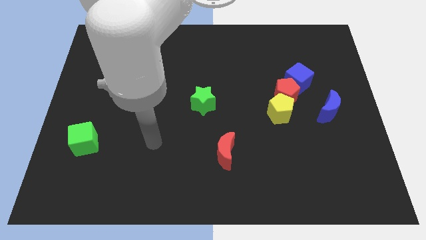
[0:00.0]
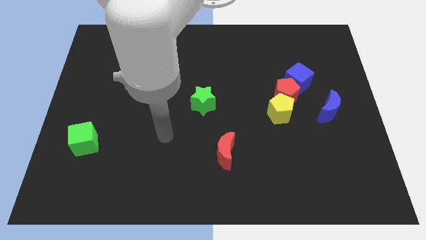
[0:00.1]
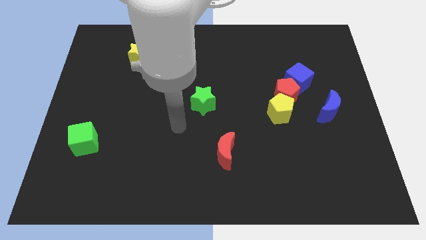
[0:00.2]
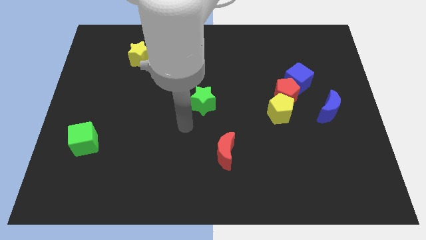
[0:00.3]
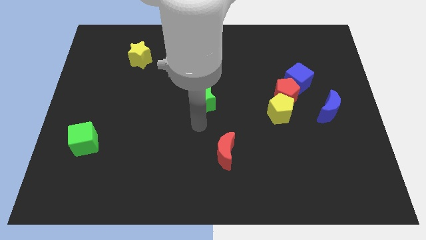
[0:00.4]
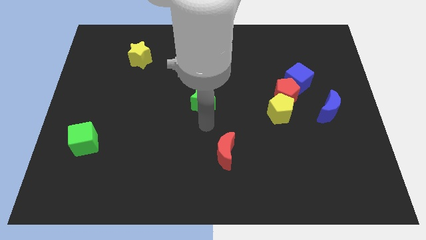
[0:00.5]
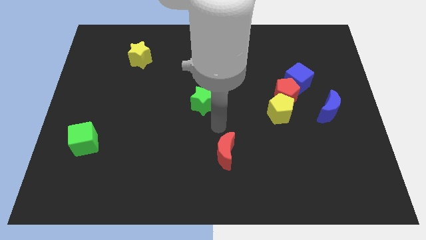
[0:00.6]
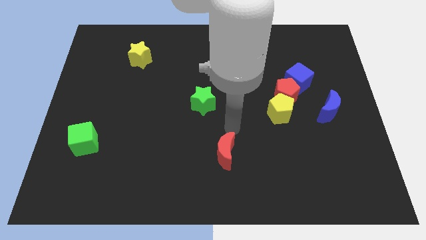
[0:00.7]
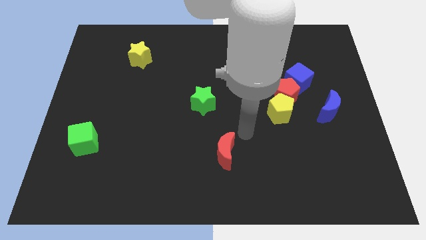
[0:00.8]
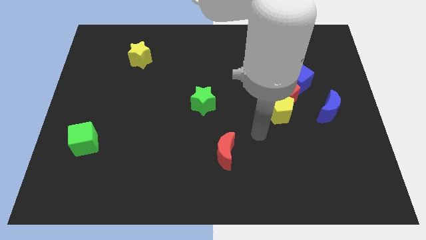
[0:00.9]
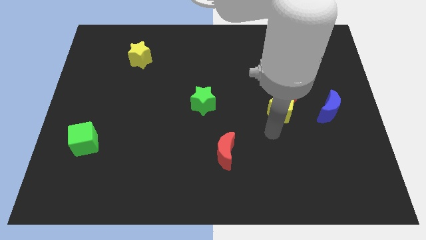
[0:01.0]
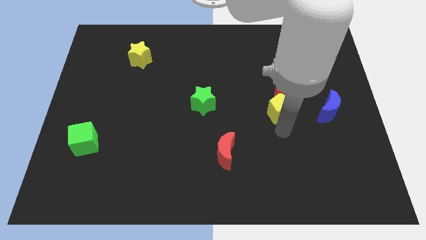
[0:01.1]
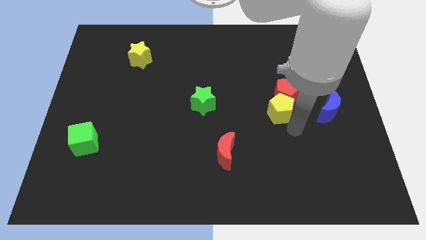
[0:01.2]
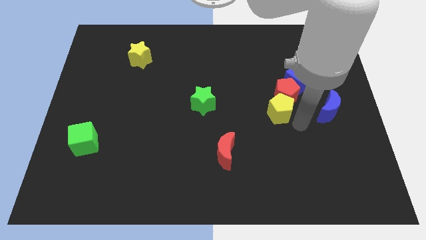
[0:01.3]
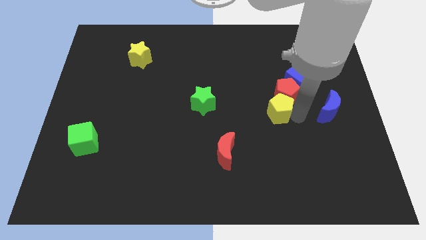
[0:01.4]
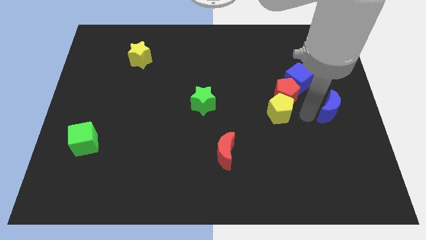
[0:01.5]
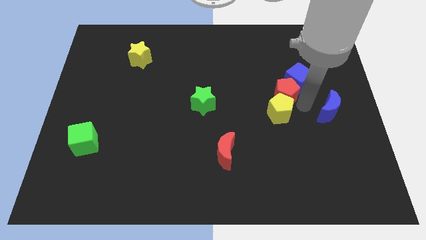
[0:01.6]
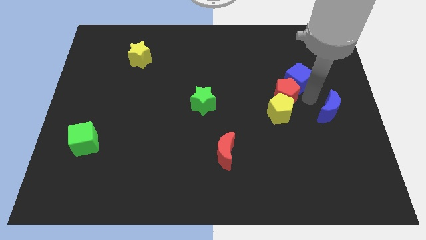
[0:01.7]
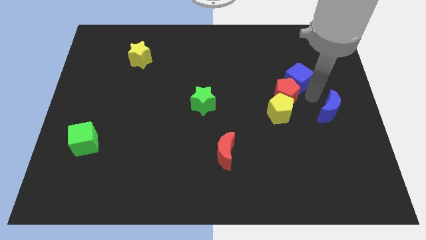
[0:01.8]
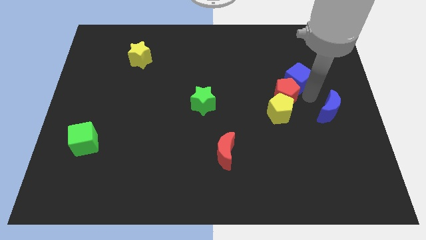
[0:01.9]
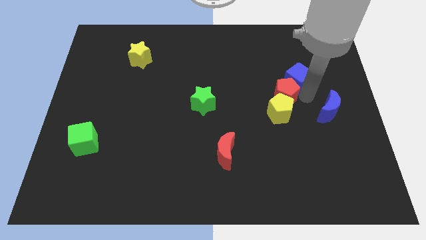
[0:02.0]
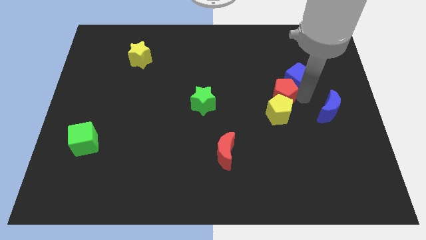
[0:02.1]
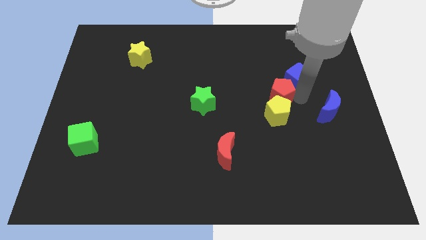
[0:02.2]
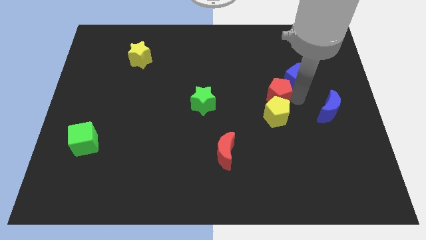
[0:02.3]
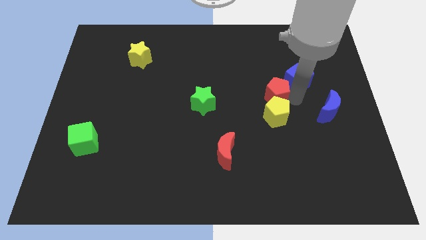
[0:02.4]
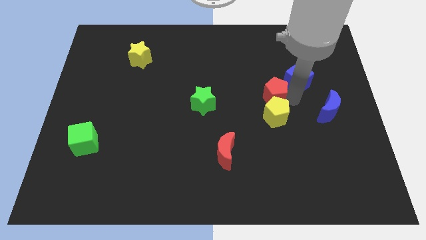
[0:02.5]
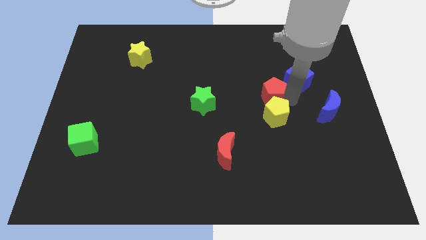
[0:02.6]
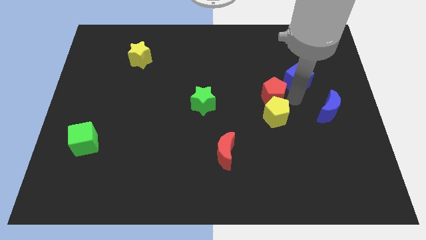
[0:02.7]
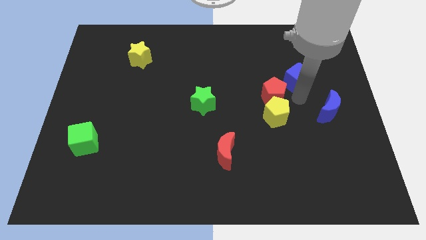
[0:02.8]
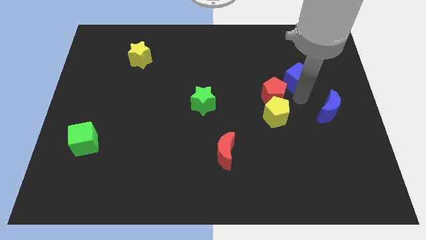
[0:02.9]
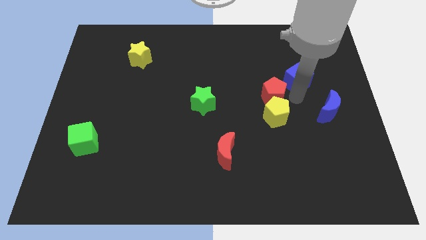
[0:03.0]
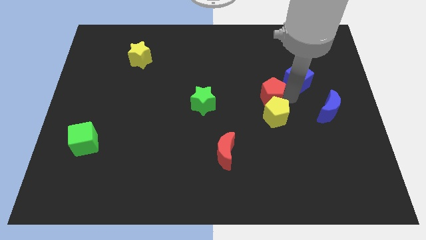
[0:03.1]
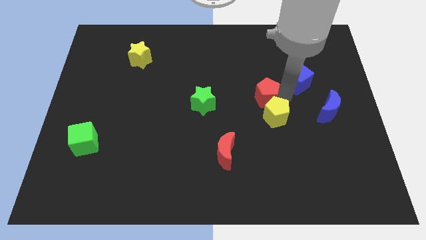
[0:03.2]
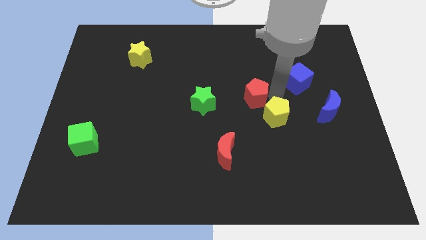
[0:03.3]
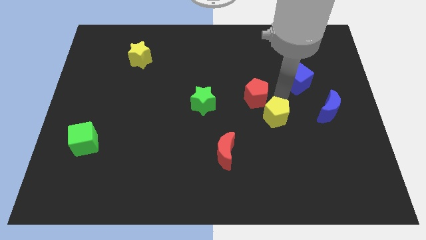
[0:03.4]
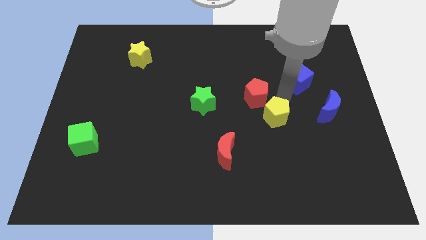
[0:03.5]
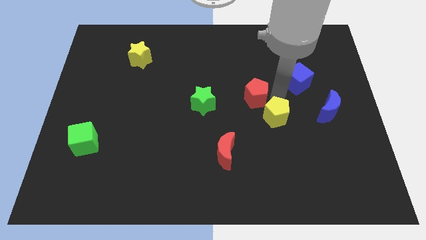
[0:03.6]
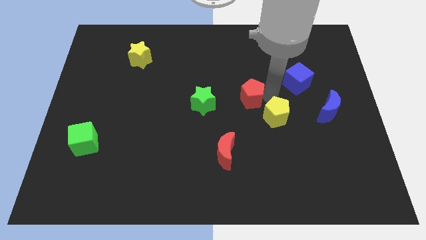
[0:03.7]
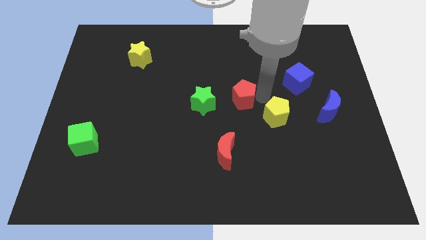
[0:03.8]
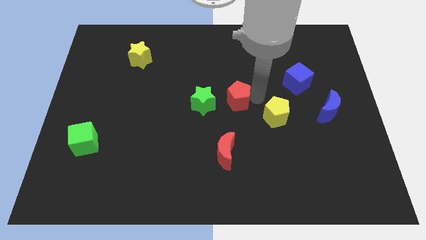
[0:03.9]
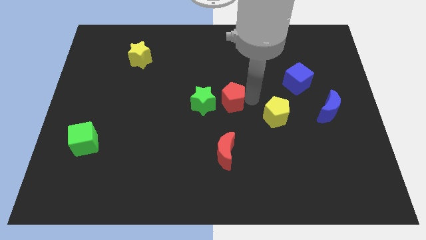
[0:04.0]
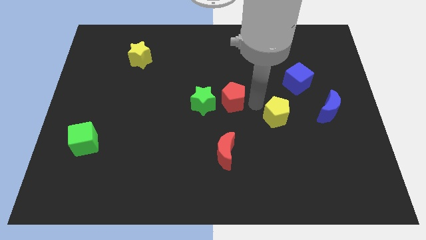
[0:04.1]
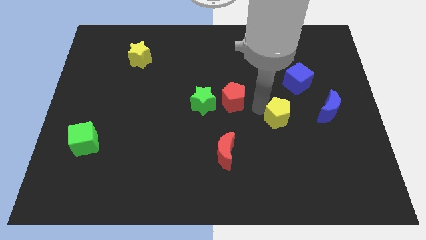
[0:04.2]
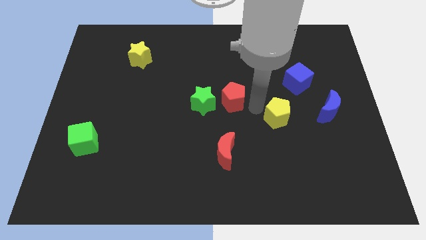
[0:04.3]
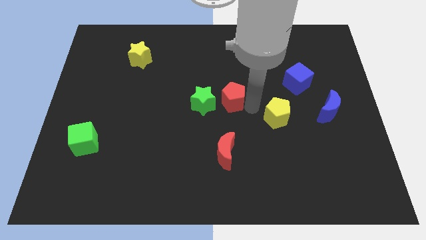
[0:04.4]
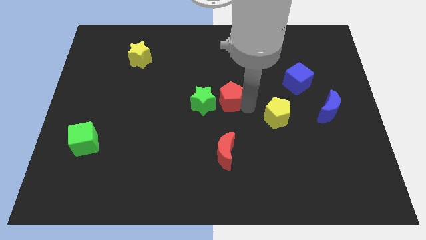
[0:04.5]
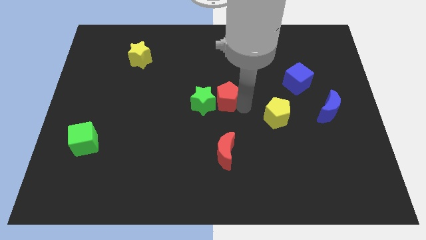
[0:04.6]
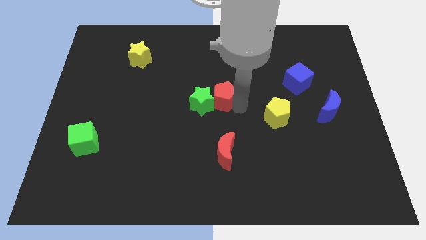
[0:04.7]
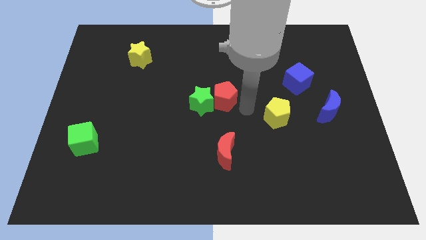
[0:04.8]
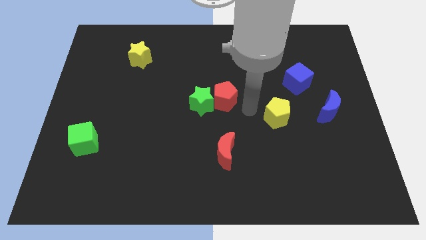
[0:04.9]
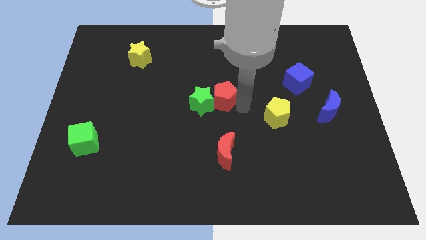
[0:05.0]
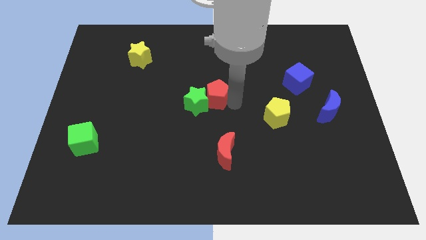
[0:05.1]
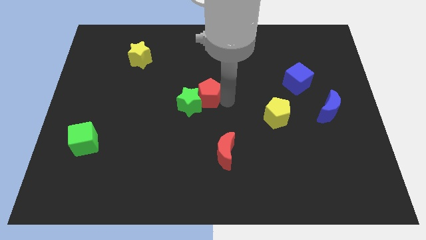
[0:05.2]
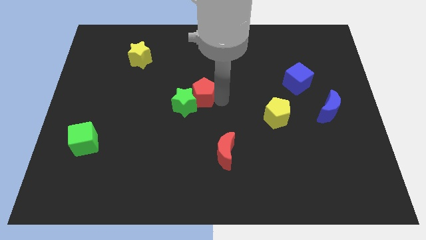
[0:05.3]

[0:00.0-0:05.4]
slide the red pentagon left

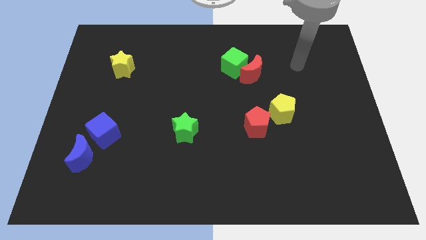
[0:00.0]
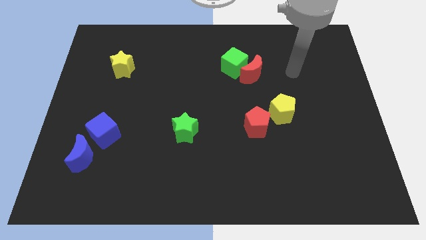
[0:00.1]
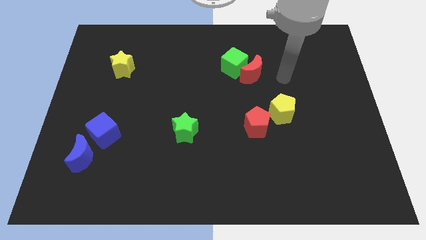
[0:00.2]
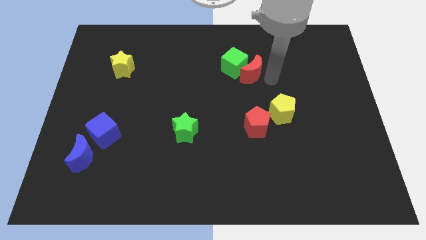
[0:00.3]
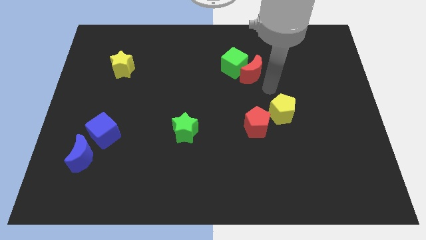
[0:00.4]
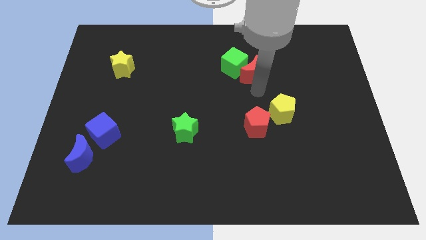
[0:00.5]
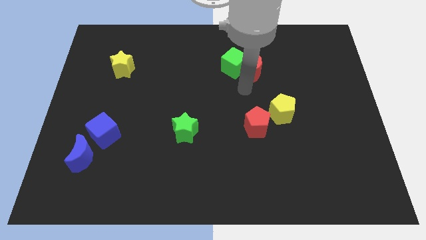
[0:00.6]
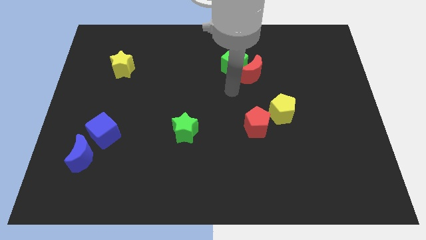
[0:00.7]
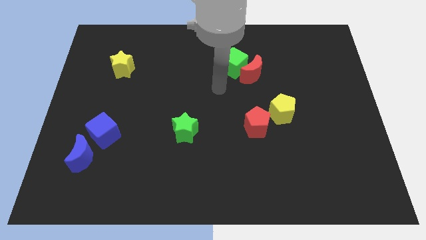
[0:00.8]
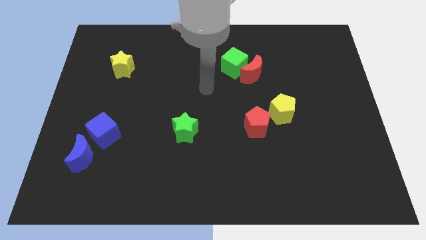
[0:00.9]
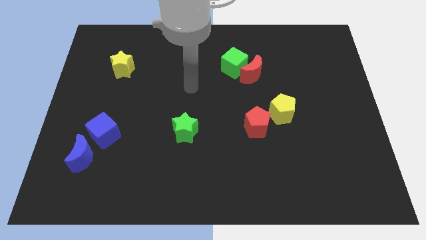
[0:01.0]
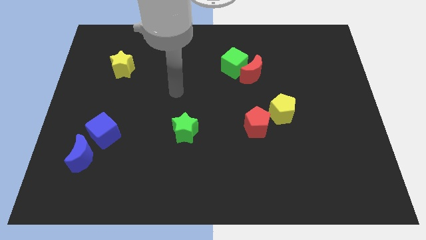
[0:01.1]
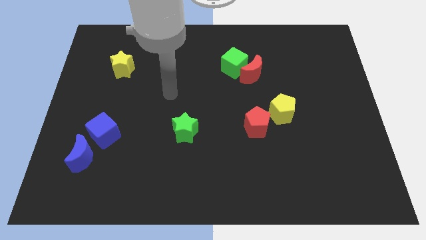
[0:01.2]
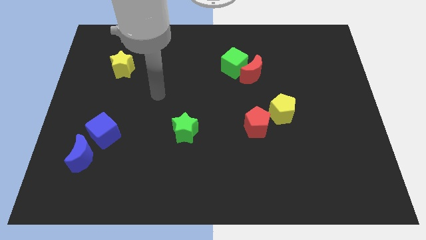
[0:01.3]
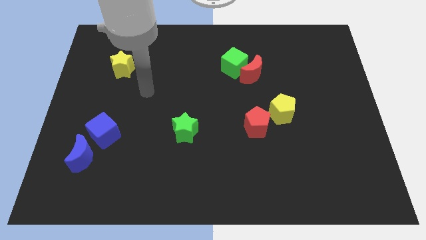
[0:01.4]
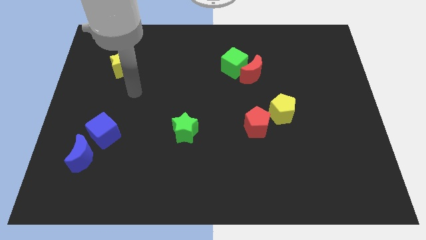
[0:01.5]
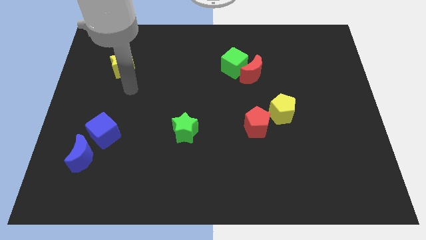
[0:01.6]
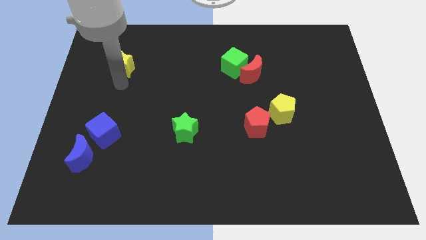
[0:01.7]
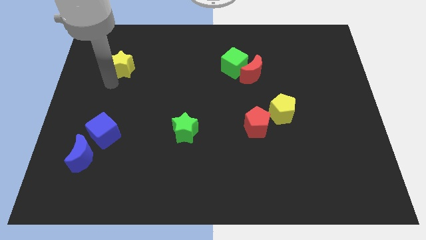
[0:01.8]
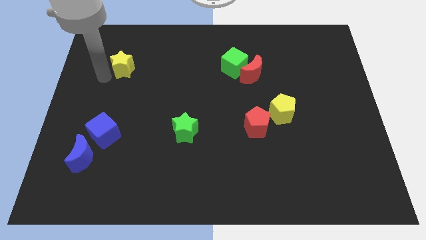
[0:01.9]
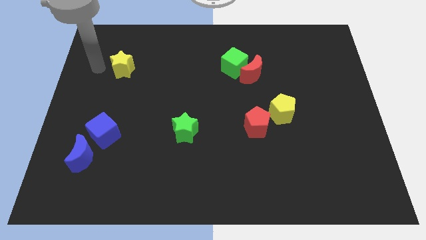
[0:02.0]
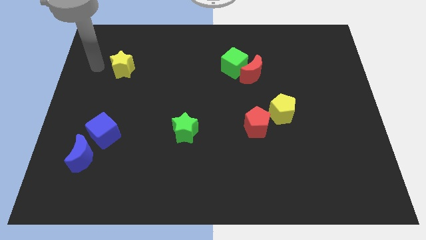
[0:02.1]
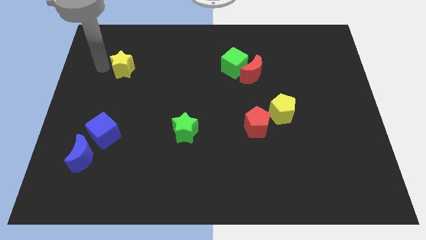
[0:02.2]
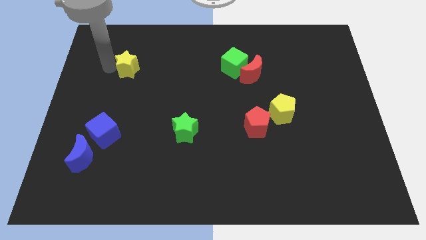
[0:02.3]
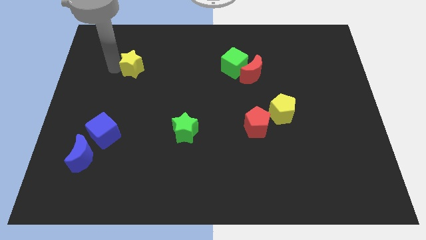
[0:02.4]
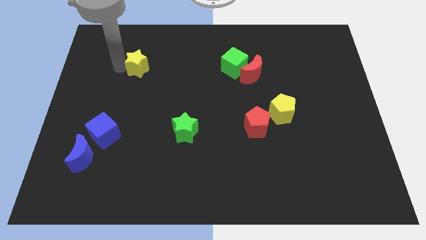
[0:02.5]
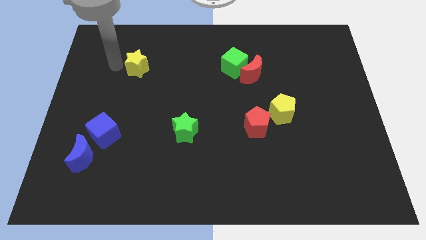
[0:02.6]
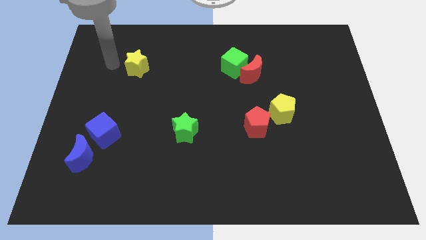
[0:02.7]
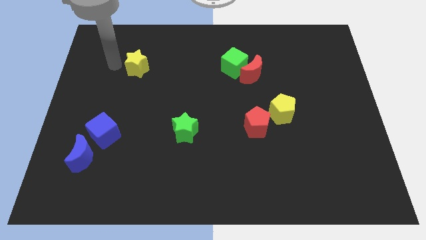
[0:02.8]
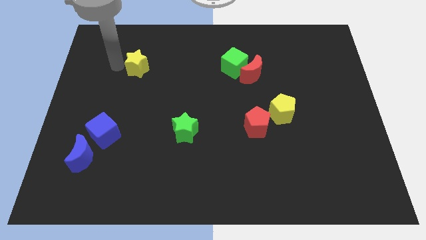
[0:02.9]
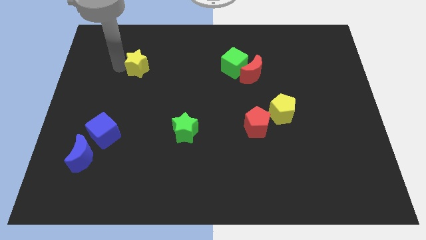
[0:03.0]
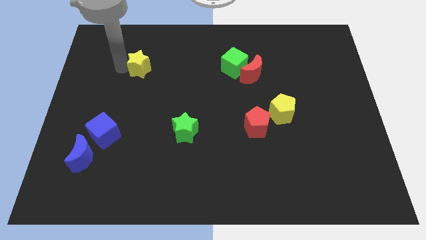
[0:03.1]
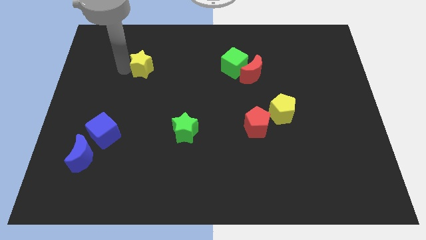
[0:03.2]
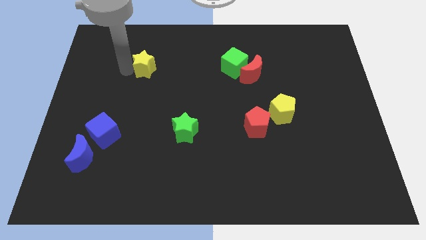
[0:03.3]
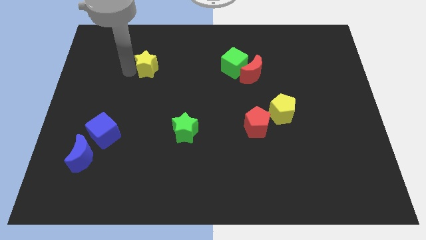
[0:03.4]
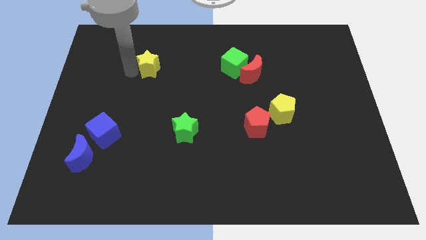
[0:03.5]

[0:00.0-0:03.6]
move the yellow star slightly right
